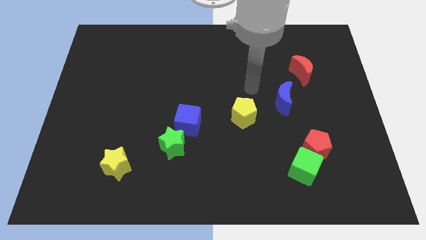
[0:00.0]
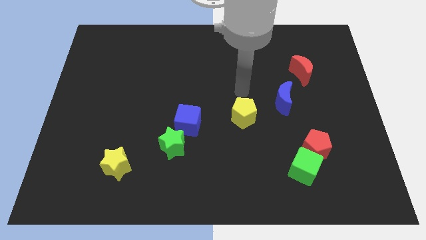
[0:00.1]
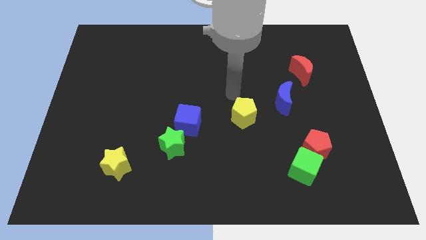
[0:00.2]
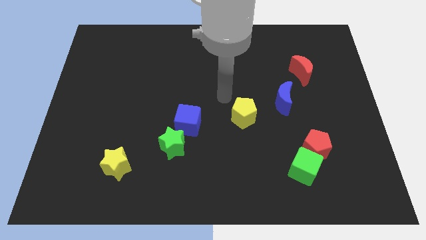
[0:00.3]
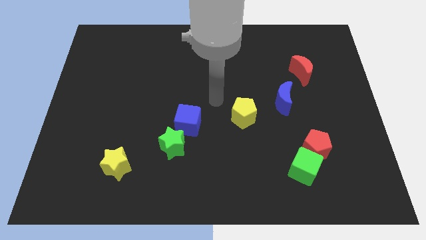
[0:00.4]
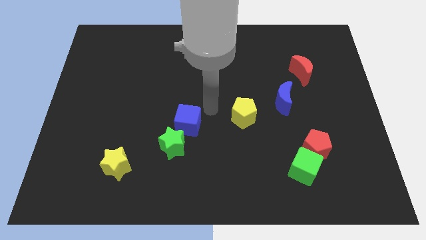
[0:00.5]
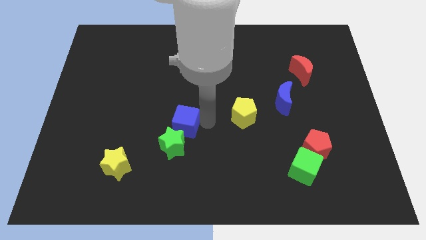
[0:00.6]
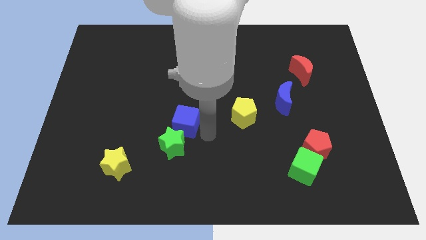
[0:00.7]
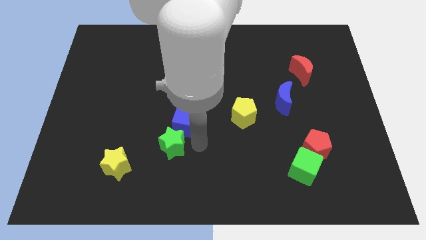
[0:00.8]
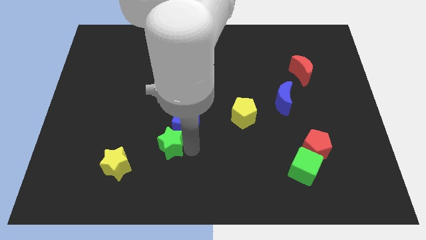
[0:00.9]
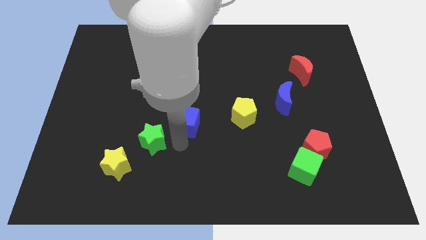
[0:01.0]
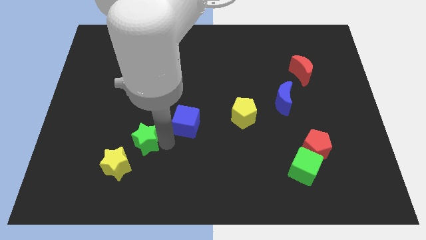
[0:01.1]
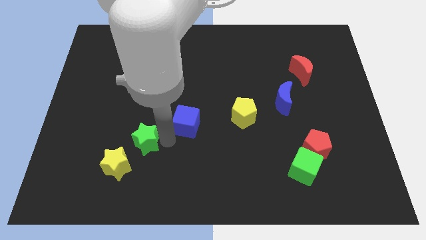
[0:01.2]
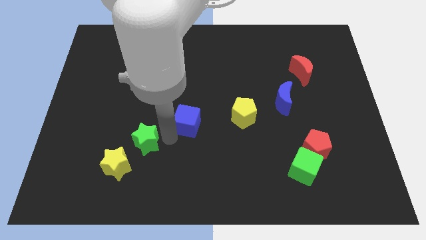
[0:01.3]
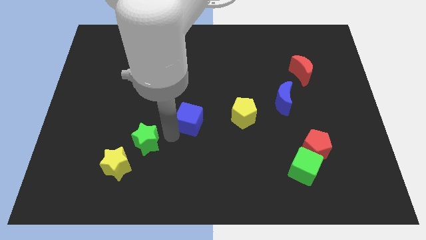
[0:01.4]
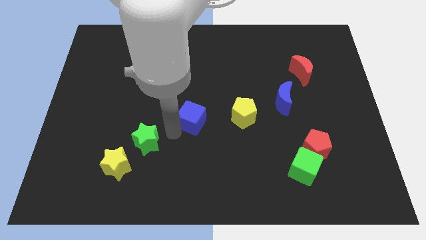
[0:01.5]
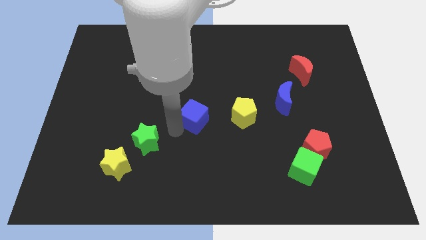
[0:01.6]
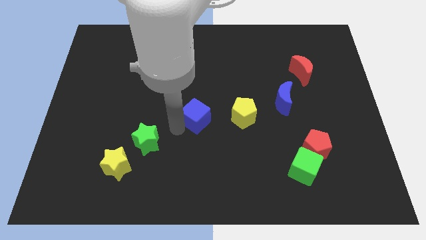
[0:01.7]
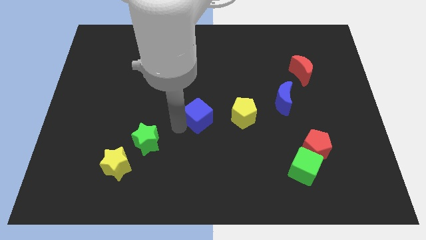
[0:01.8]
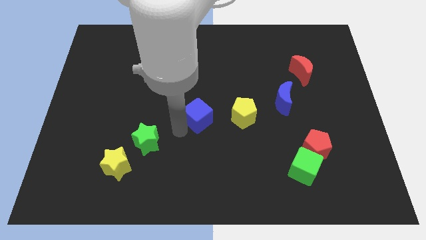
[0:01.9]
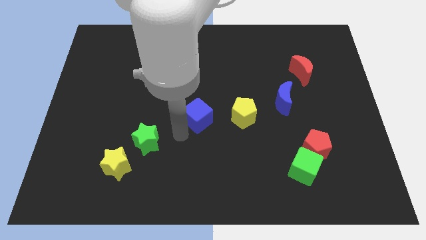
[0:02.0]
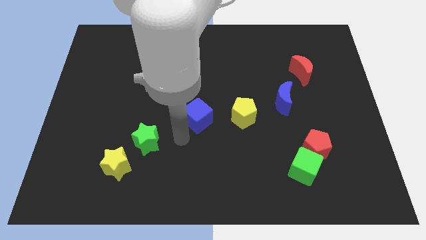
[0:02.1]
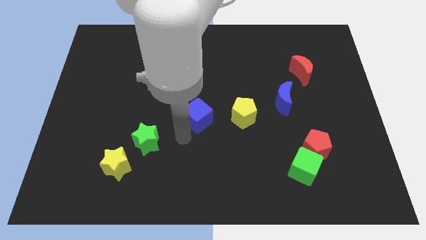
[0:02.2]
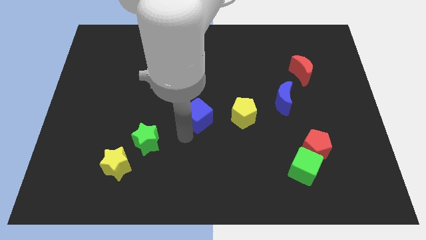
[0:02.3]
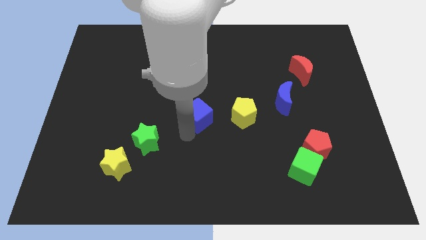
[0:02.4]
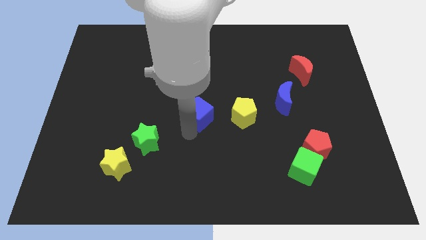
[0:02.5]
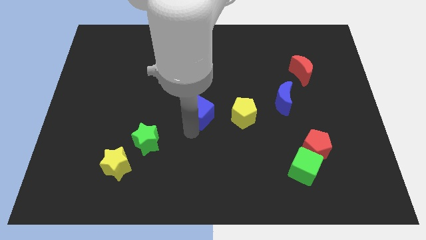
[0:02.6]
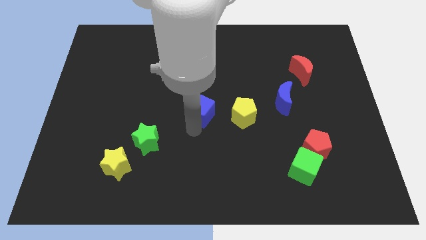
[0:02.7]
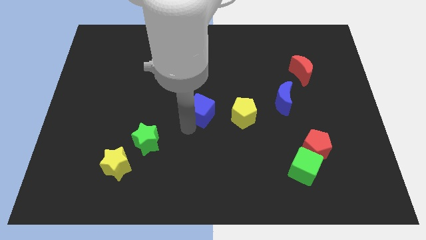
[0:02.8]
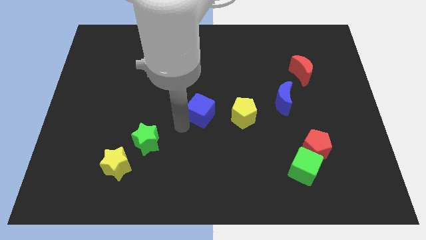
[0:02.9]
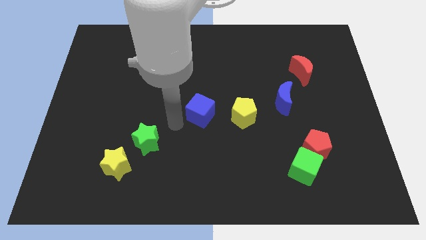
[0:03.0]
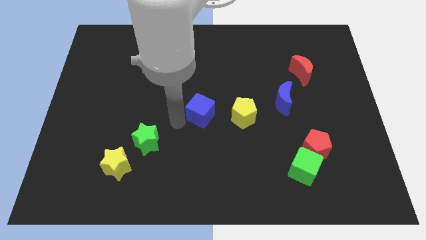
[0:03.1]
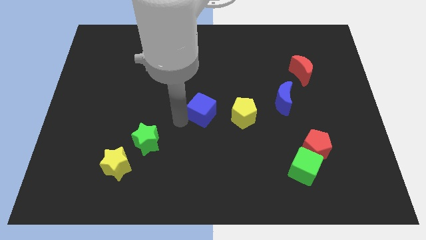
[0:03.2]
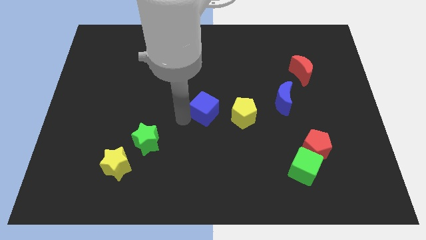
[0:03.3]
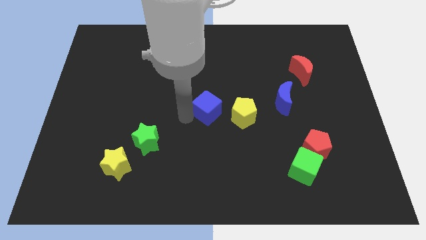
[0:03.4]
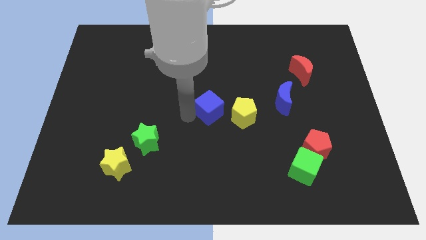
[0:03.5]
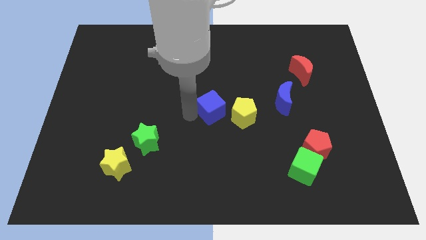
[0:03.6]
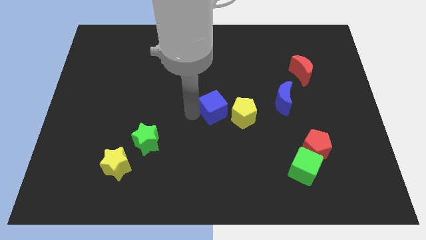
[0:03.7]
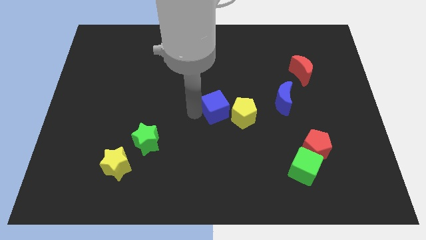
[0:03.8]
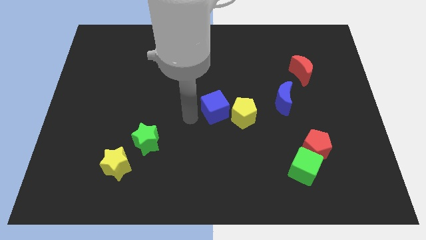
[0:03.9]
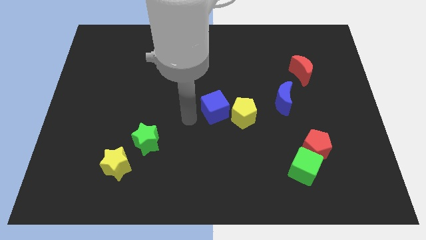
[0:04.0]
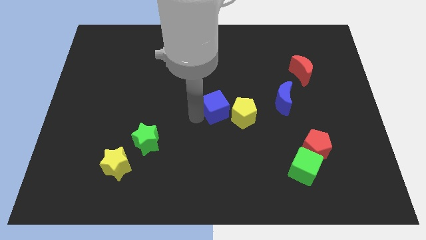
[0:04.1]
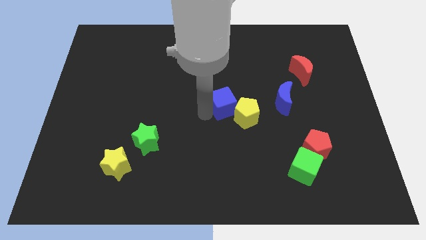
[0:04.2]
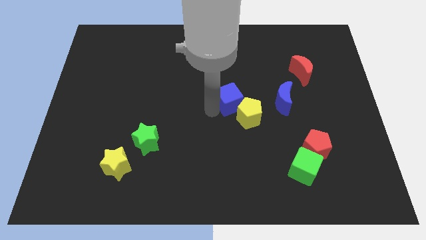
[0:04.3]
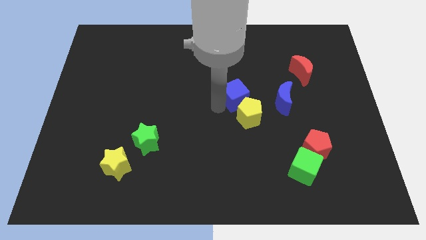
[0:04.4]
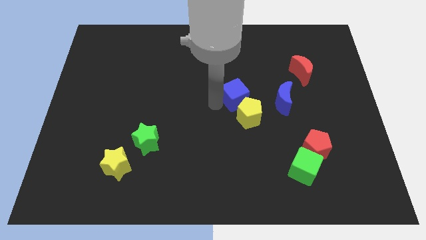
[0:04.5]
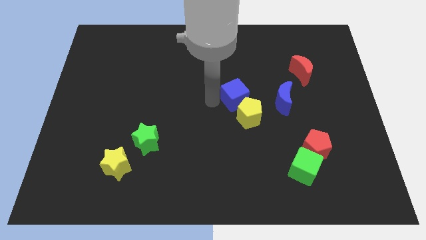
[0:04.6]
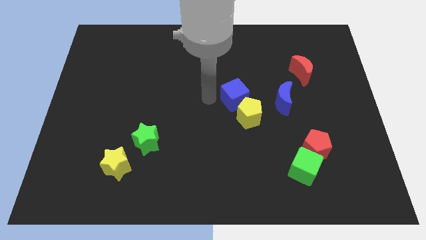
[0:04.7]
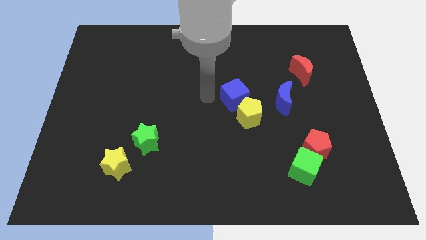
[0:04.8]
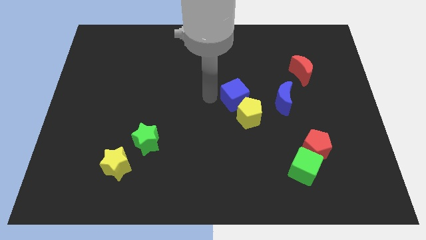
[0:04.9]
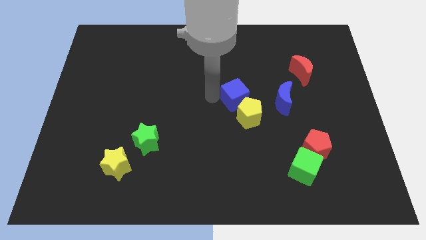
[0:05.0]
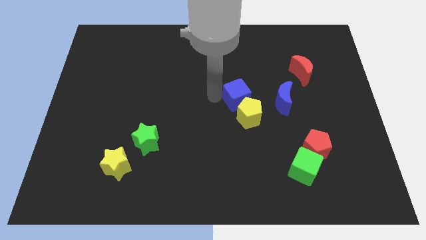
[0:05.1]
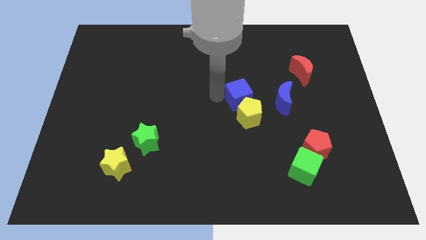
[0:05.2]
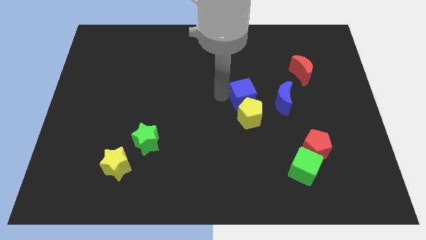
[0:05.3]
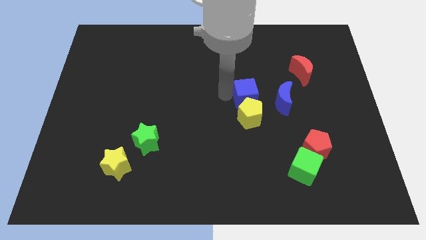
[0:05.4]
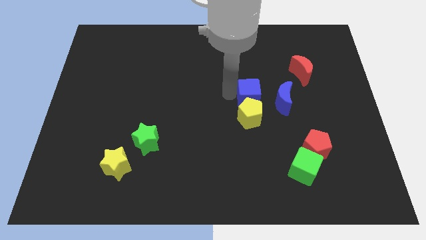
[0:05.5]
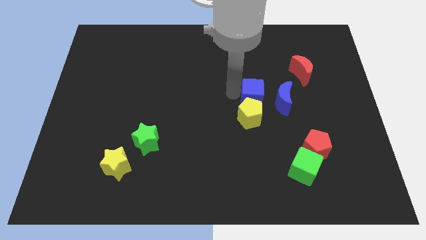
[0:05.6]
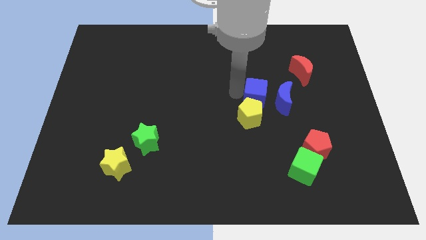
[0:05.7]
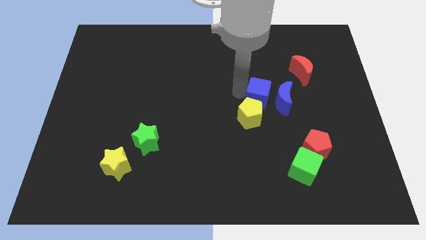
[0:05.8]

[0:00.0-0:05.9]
move the blue cube close to the blue moon

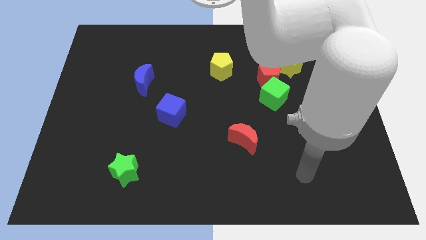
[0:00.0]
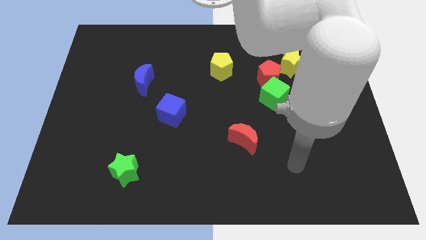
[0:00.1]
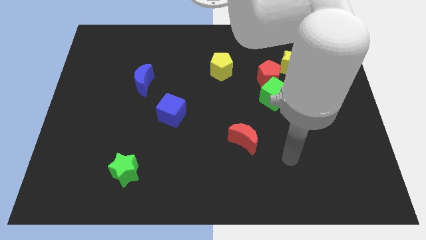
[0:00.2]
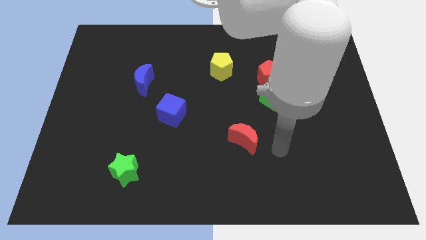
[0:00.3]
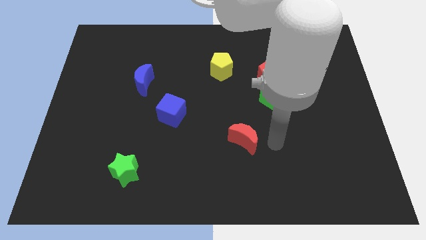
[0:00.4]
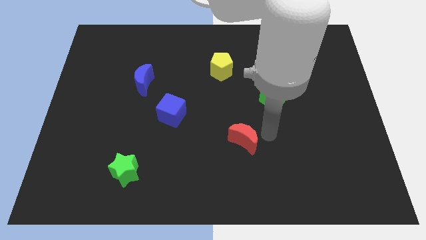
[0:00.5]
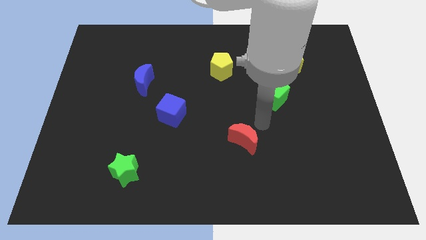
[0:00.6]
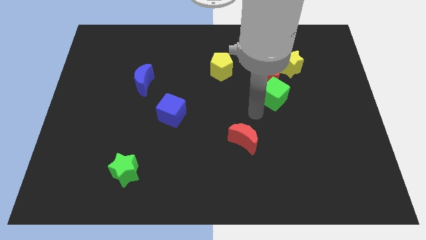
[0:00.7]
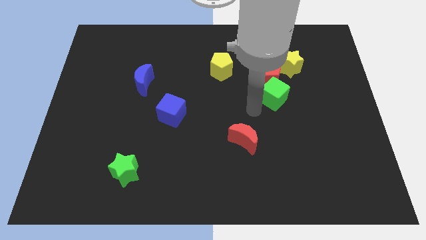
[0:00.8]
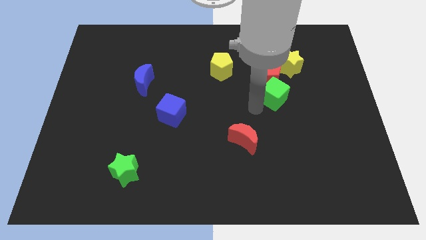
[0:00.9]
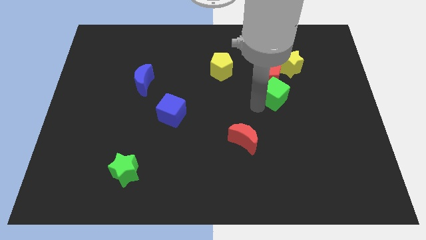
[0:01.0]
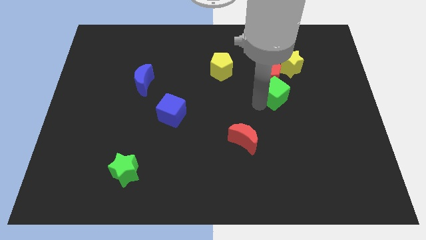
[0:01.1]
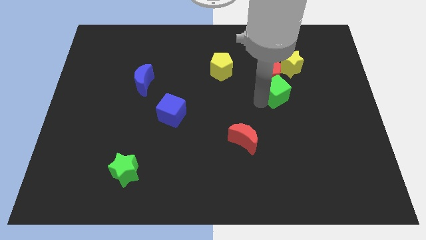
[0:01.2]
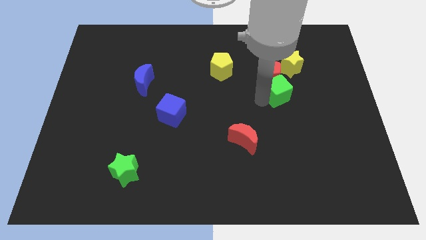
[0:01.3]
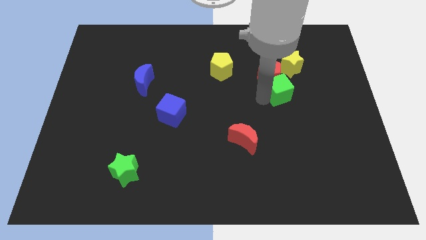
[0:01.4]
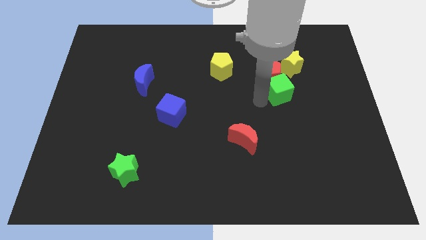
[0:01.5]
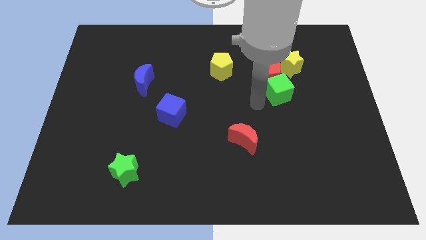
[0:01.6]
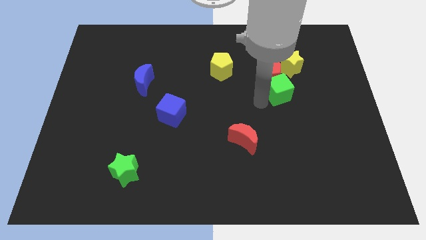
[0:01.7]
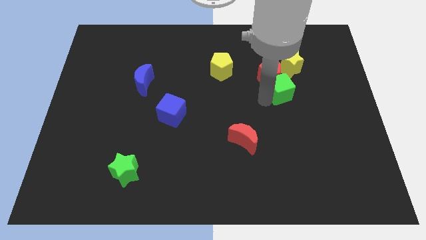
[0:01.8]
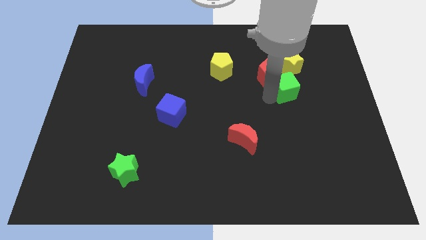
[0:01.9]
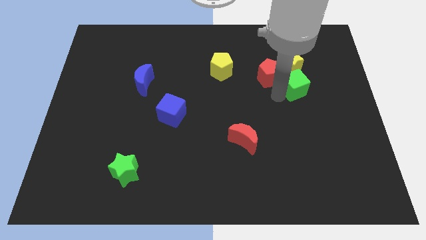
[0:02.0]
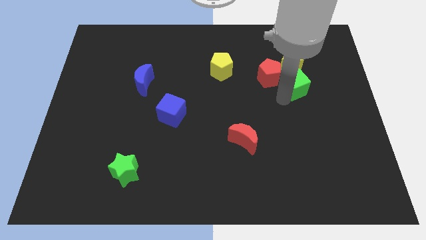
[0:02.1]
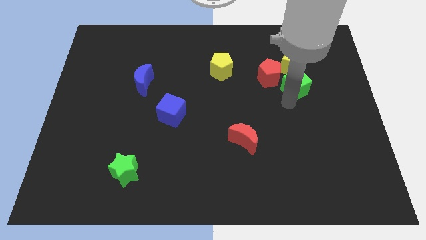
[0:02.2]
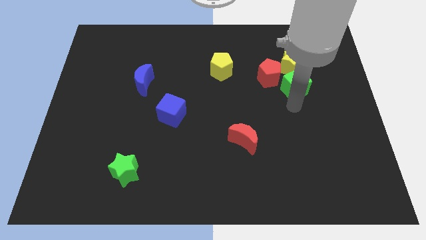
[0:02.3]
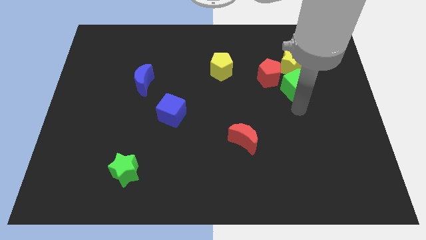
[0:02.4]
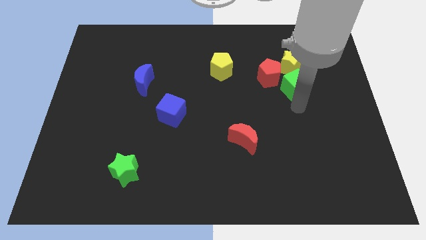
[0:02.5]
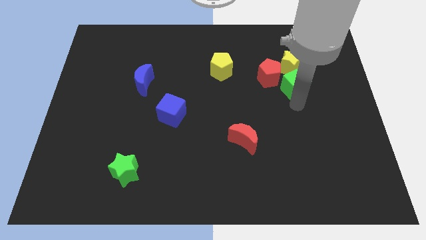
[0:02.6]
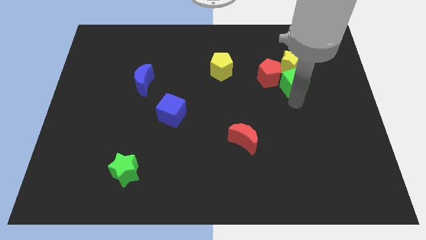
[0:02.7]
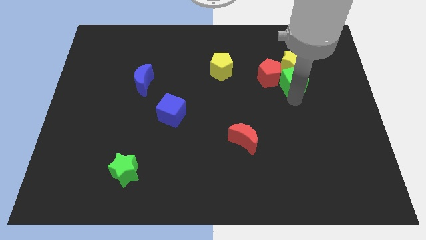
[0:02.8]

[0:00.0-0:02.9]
slide the green cube to the yellow star
